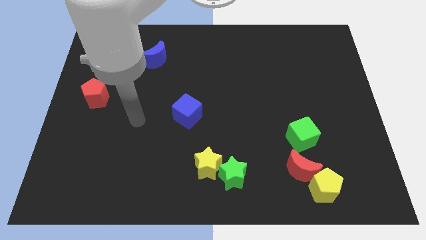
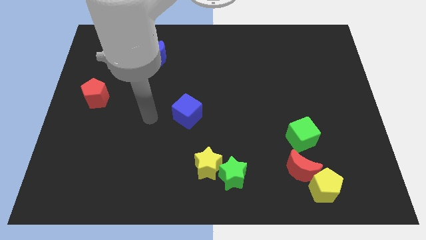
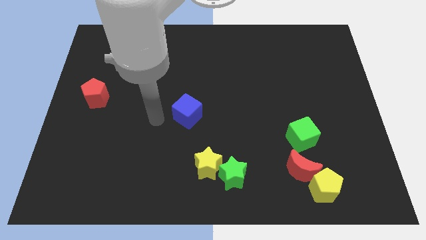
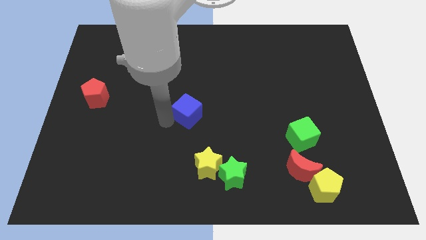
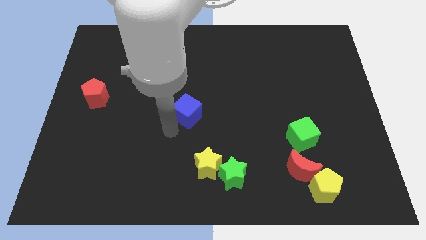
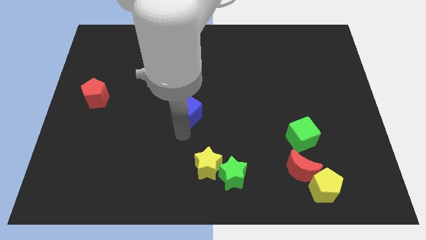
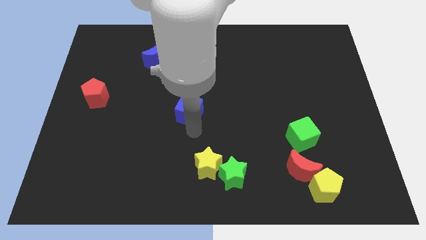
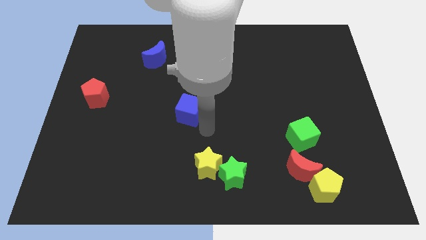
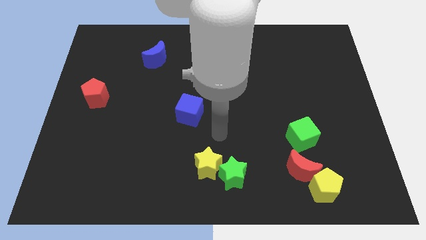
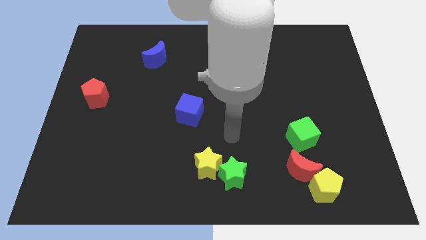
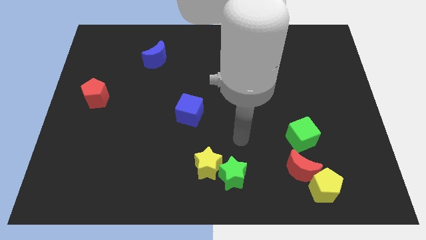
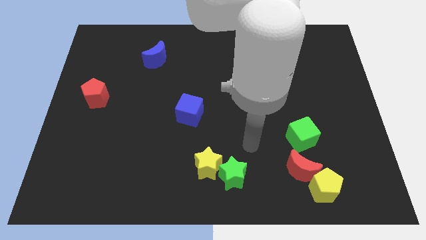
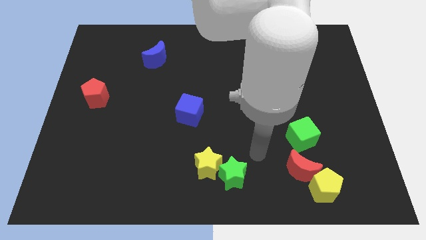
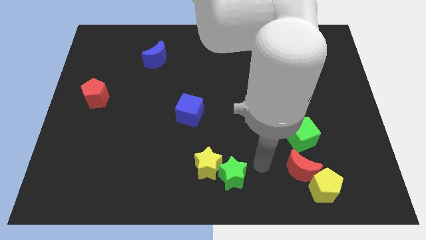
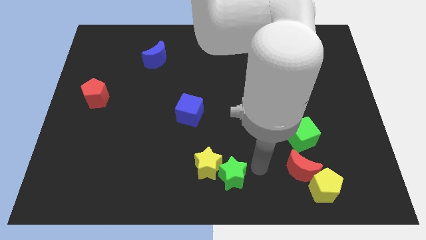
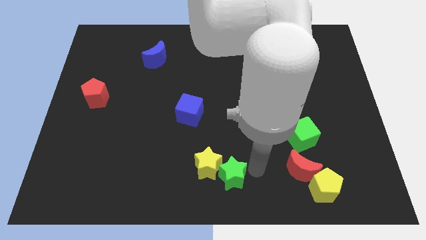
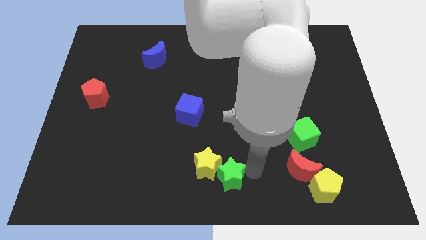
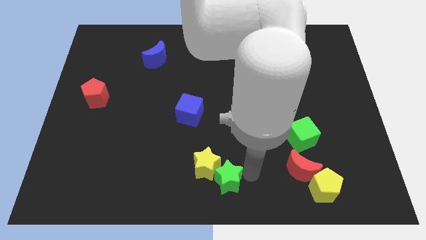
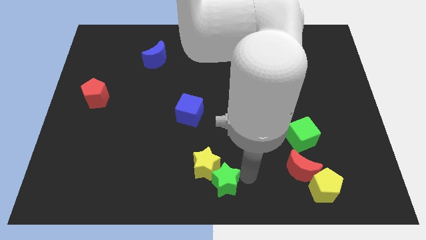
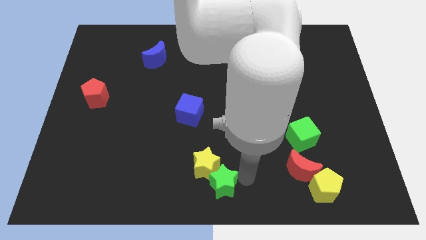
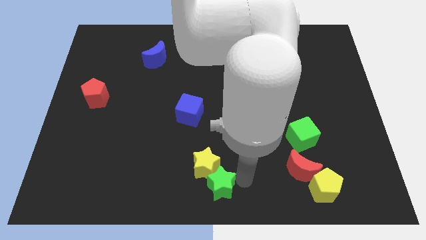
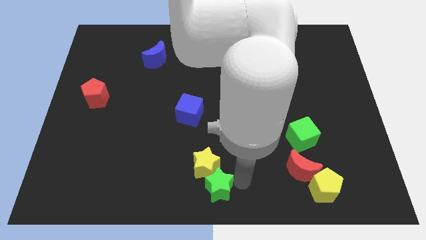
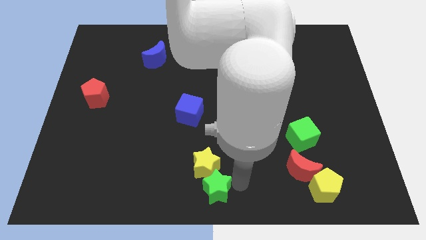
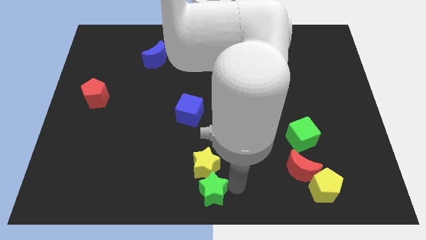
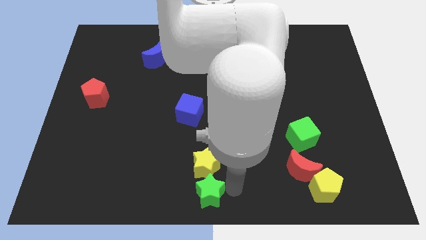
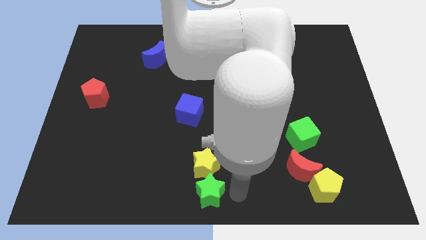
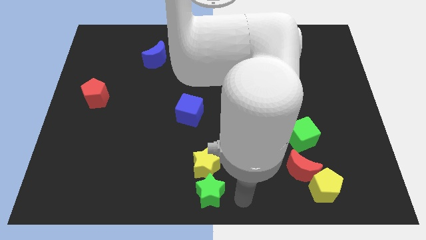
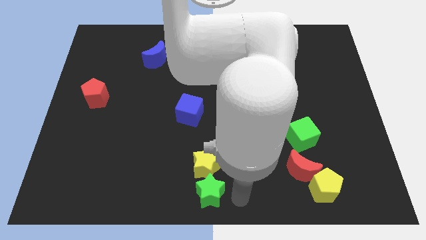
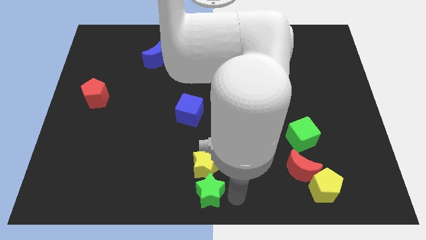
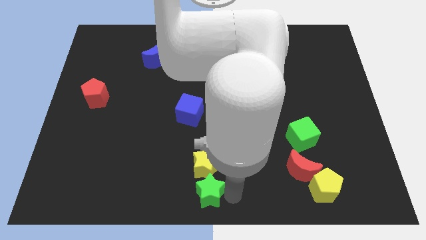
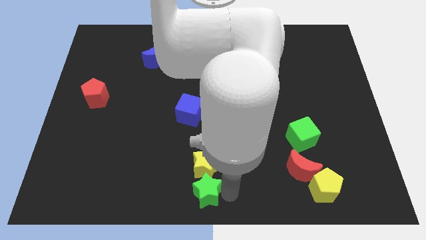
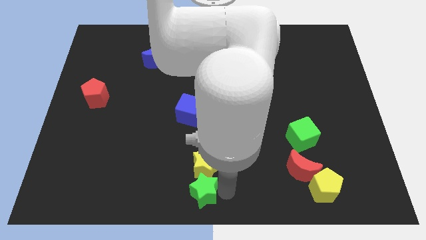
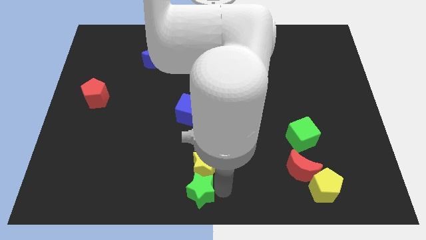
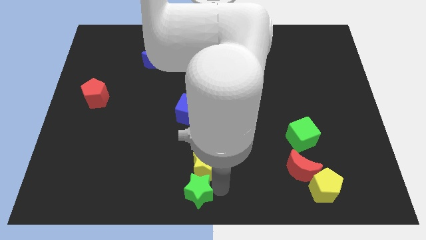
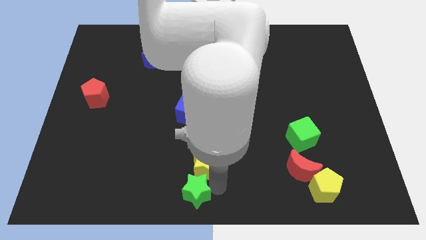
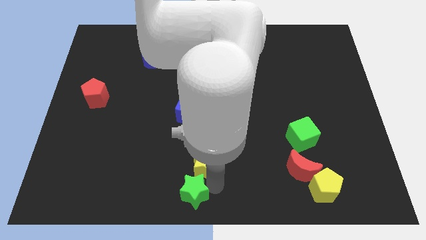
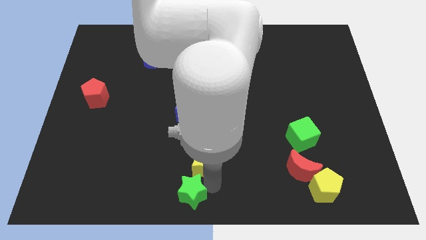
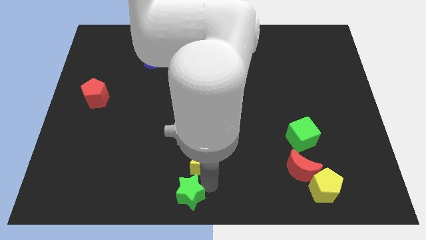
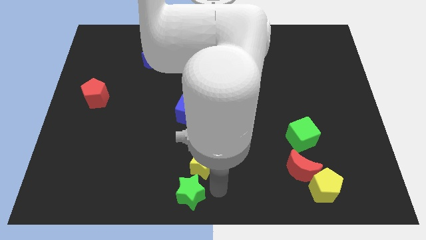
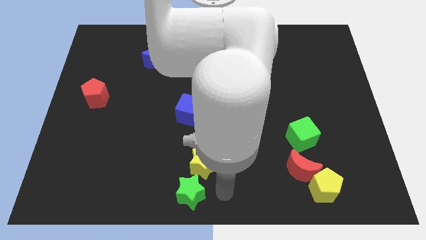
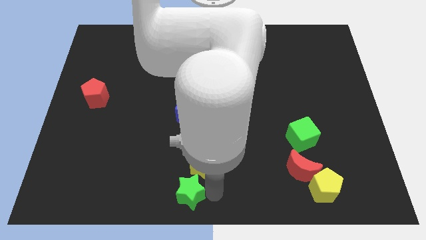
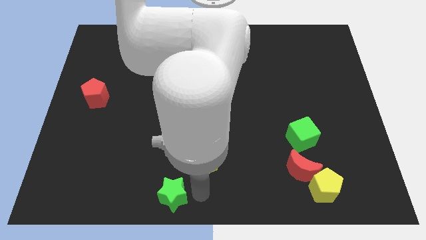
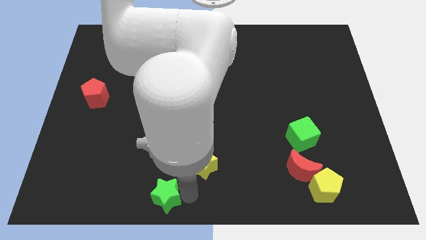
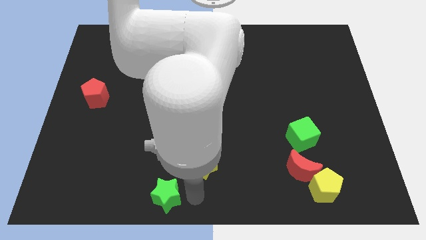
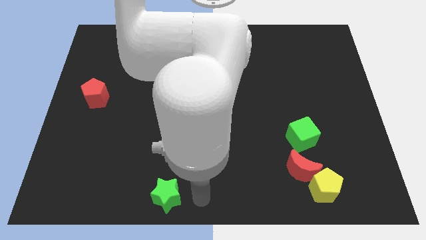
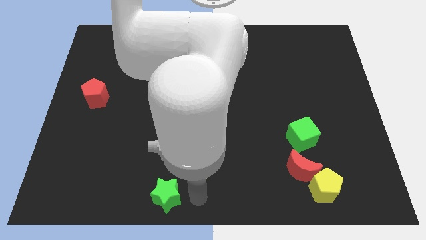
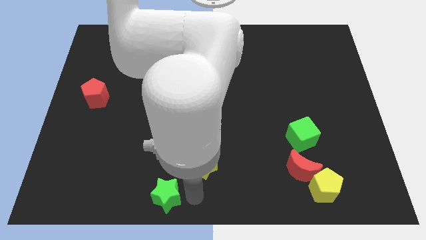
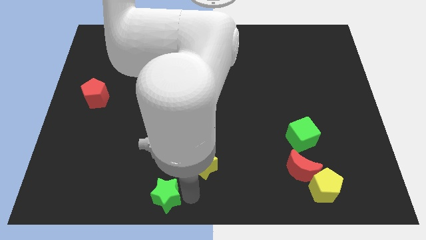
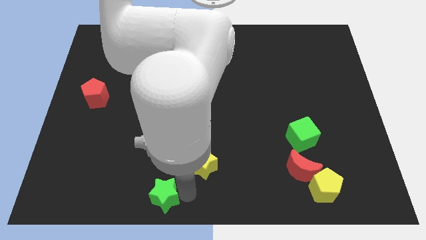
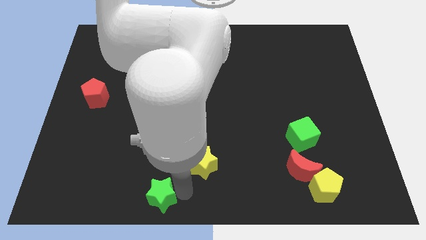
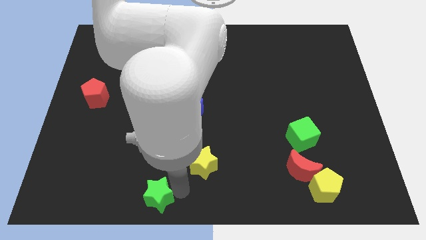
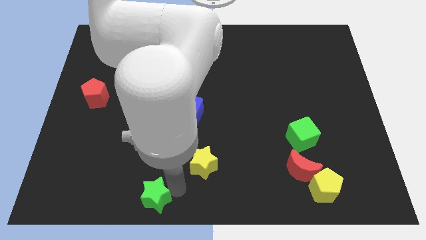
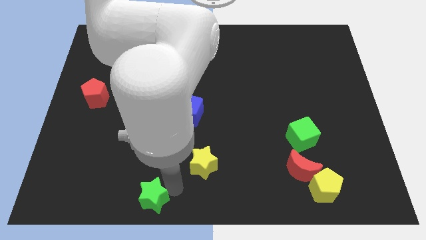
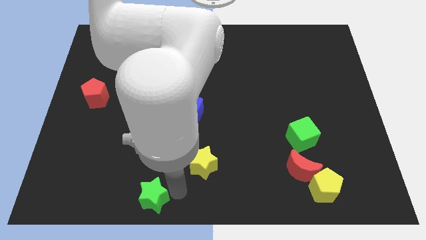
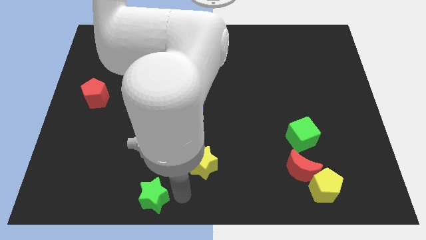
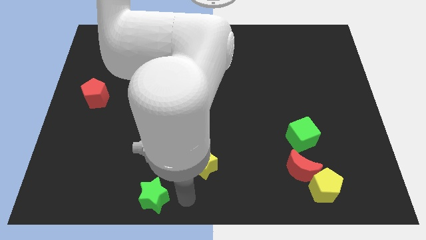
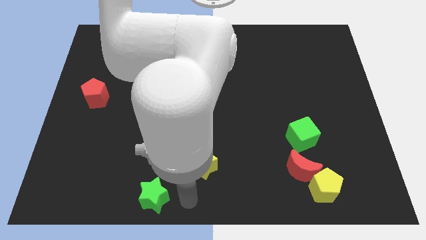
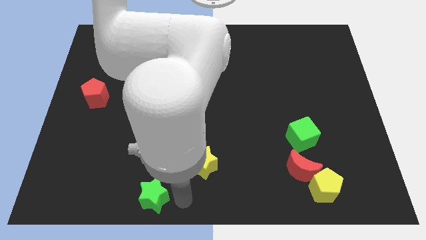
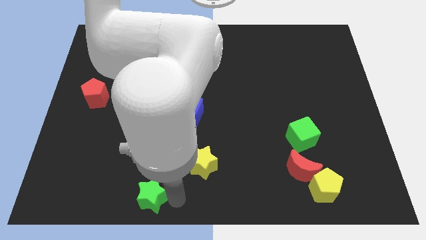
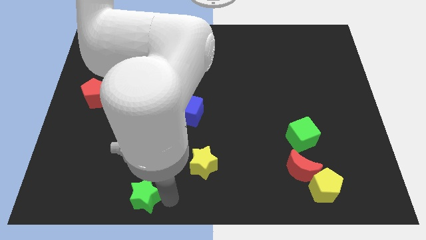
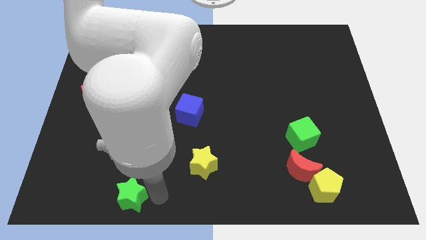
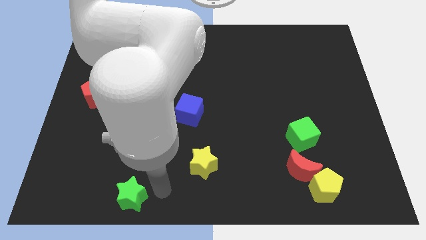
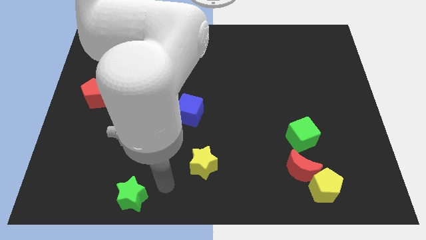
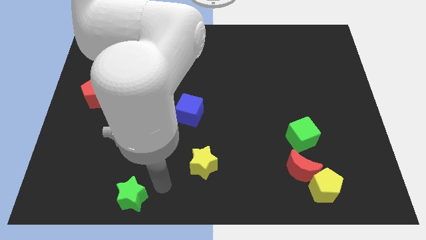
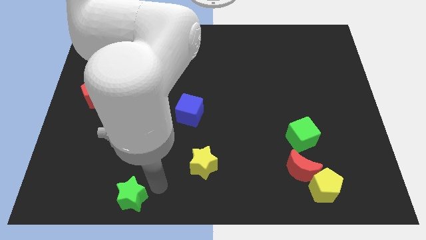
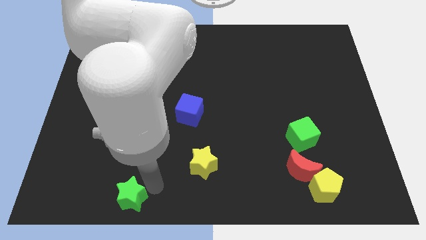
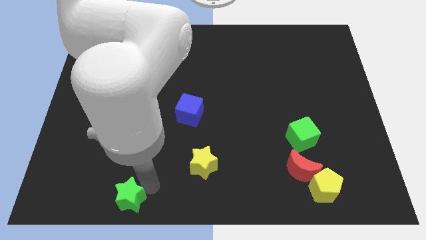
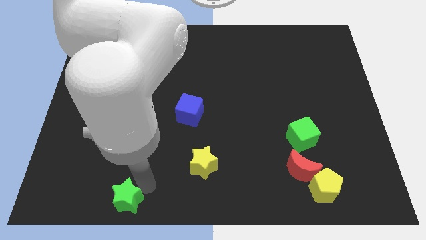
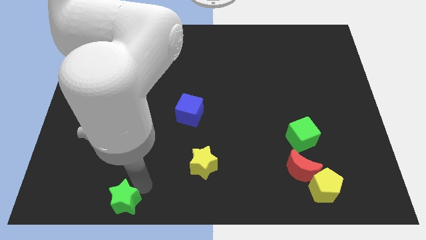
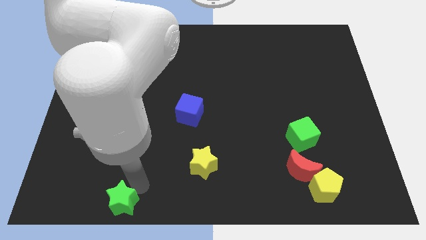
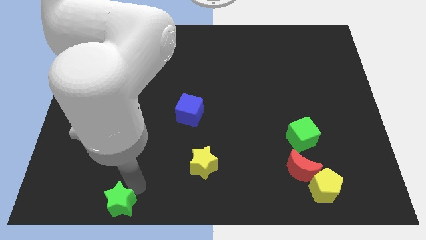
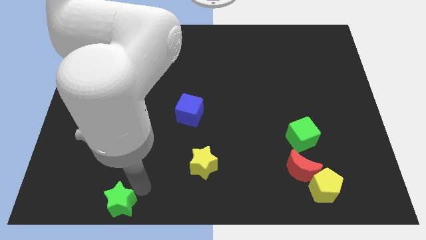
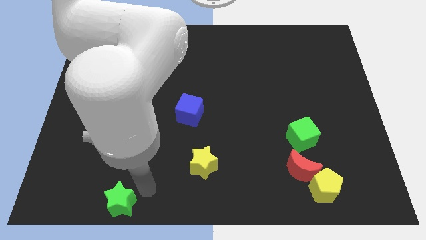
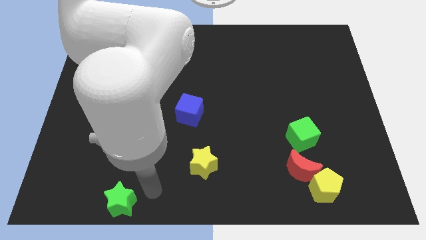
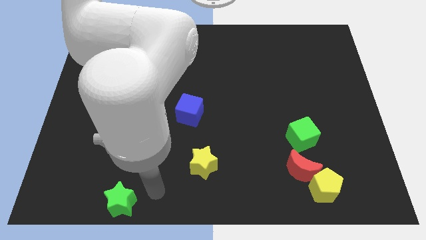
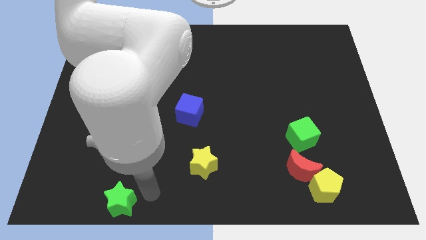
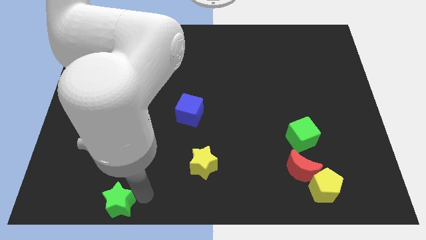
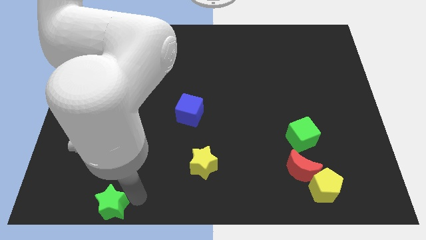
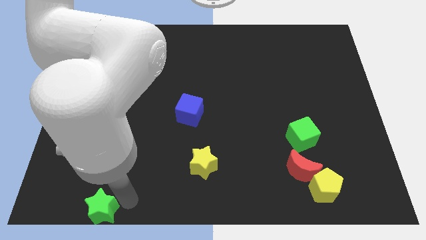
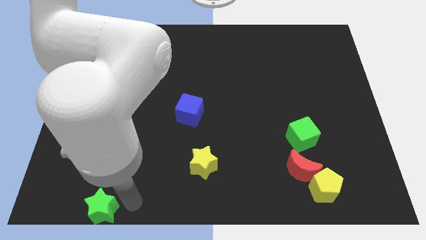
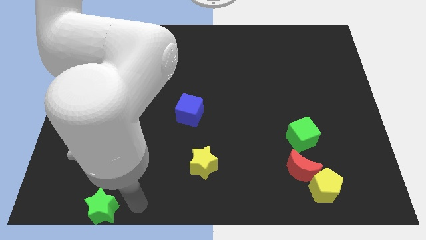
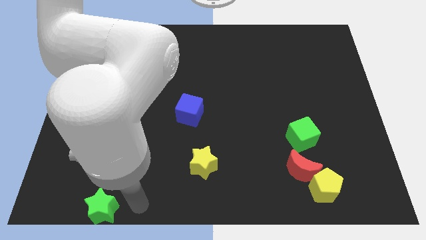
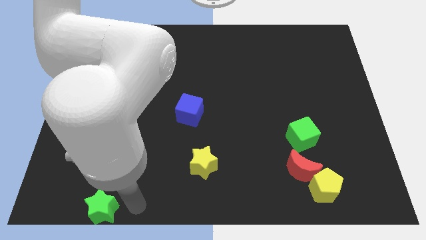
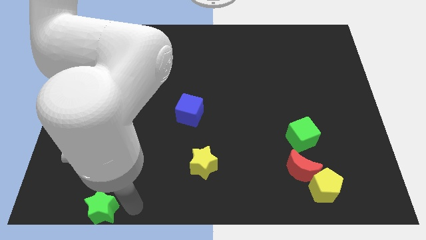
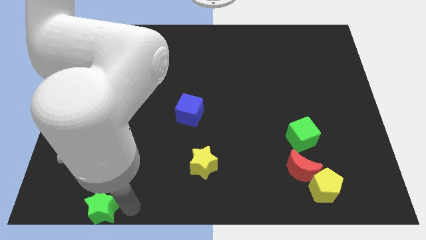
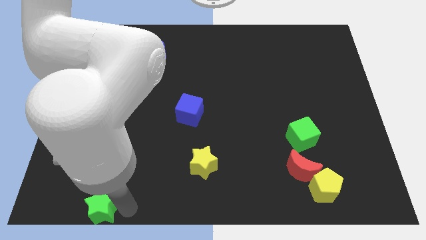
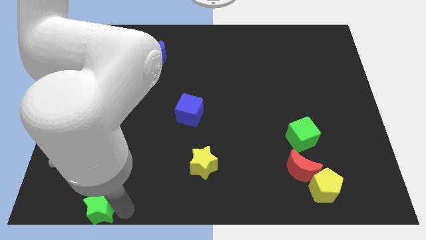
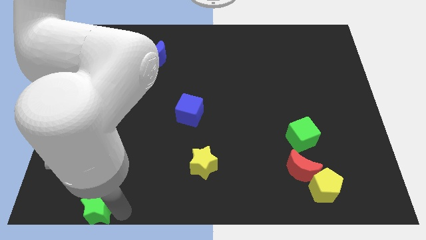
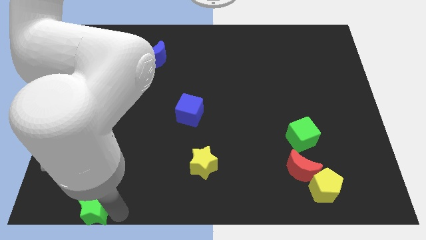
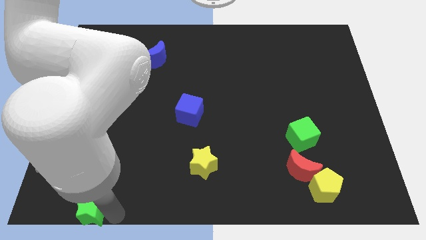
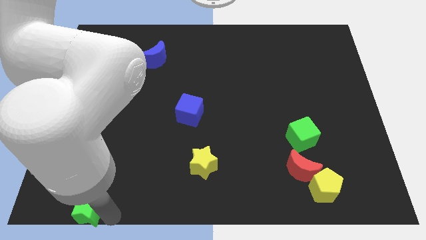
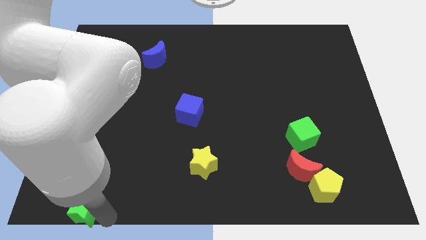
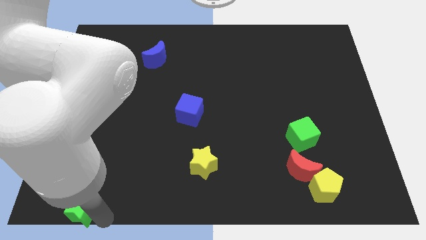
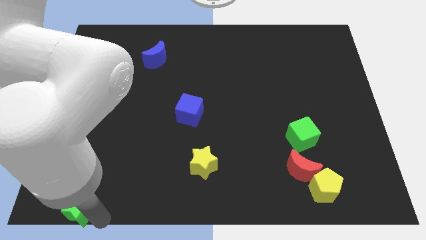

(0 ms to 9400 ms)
push the green star to the lower left corner
